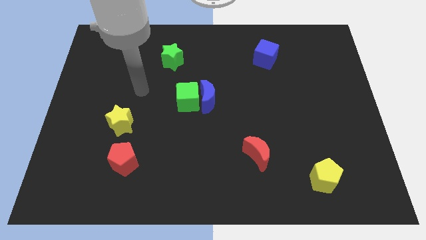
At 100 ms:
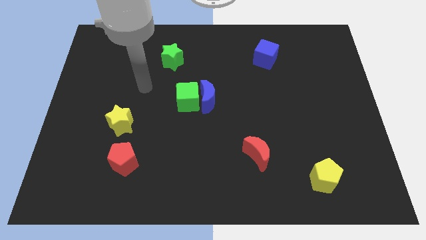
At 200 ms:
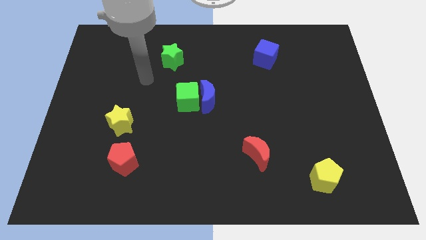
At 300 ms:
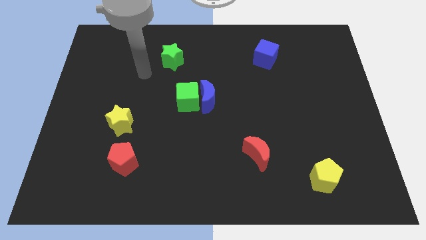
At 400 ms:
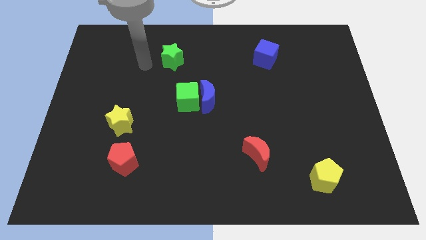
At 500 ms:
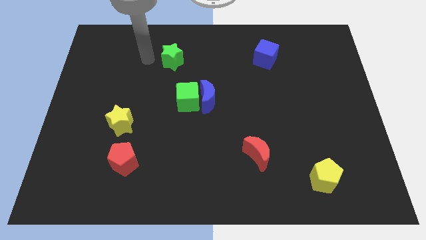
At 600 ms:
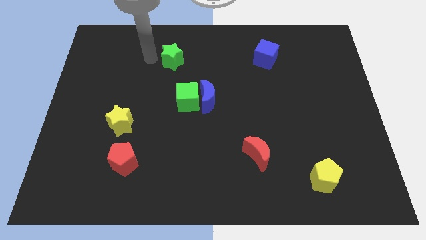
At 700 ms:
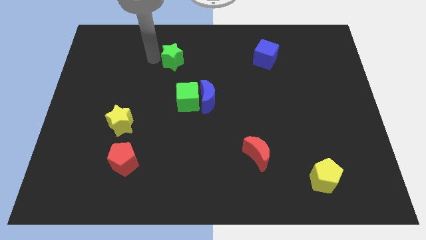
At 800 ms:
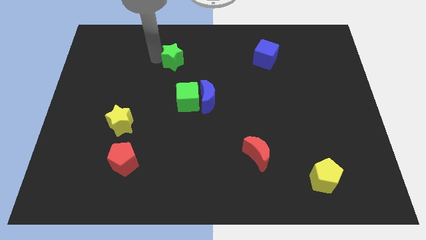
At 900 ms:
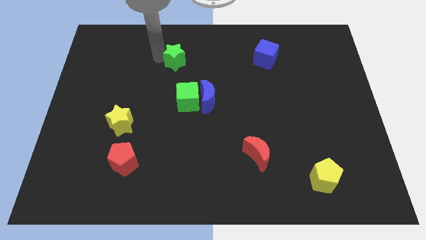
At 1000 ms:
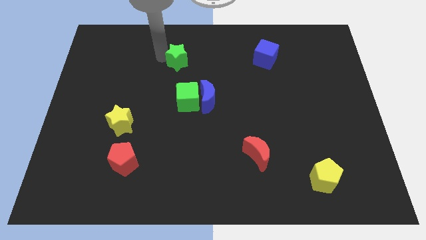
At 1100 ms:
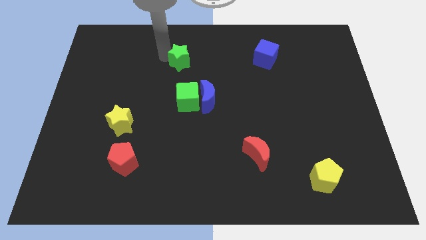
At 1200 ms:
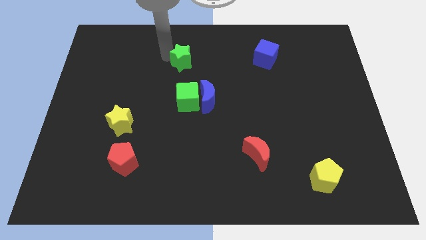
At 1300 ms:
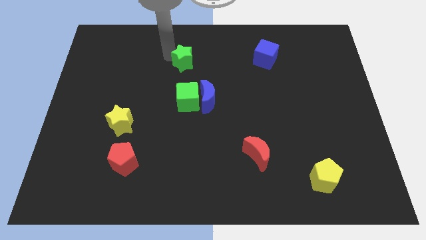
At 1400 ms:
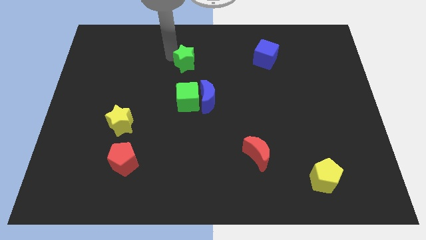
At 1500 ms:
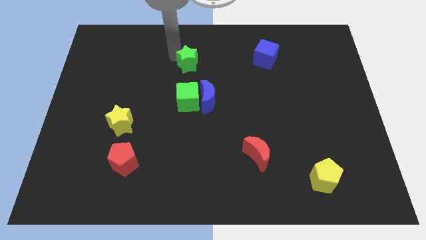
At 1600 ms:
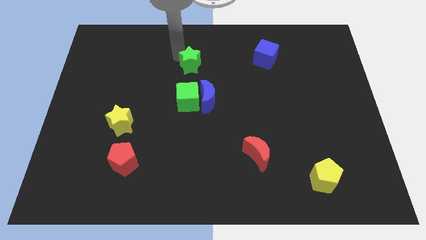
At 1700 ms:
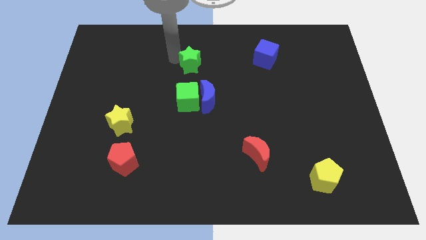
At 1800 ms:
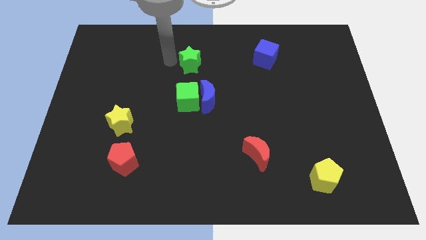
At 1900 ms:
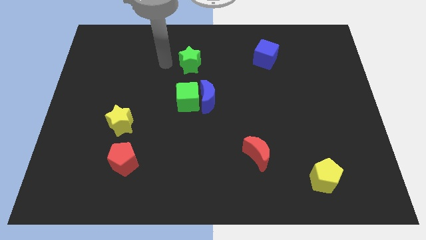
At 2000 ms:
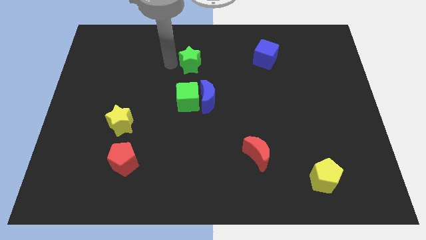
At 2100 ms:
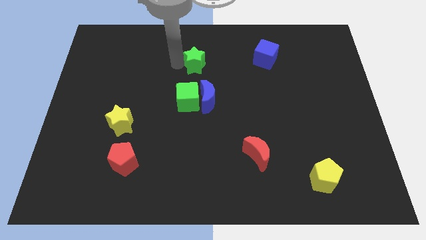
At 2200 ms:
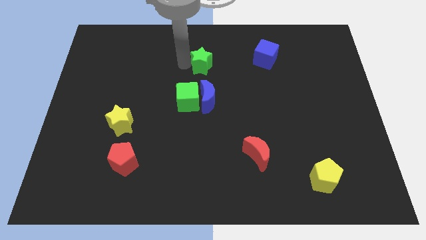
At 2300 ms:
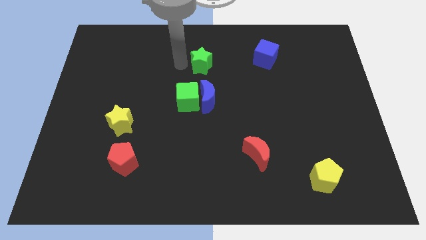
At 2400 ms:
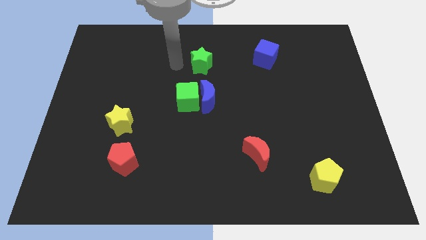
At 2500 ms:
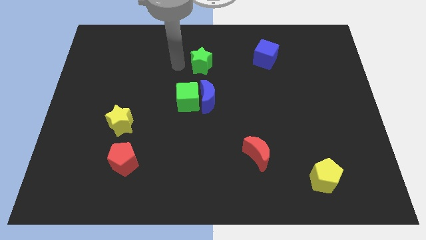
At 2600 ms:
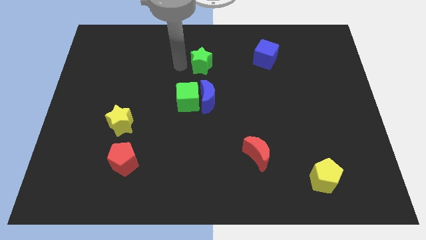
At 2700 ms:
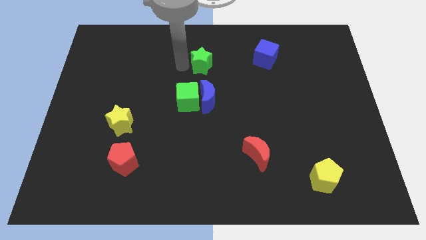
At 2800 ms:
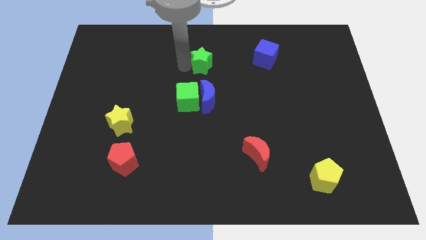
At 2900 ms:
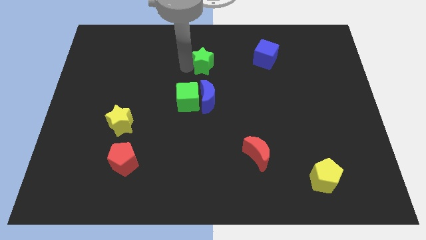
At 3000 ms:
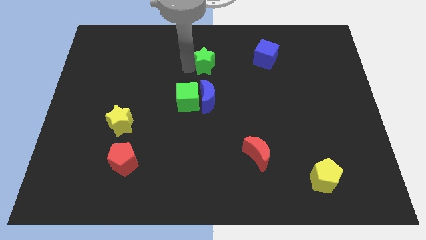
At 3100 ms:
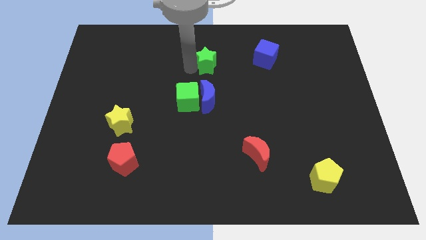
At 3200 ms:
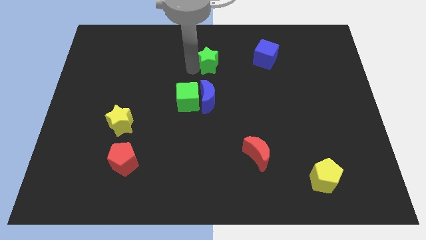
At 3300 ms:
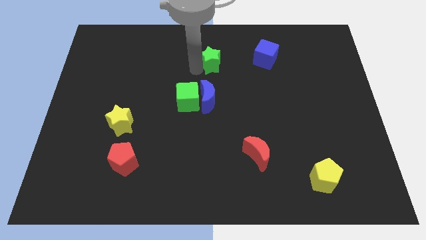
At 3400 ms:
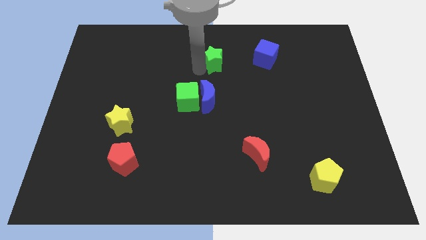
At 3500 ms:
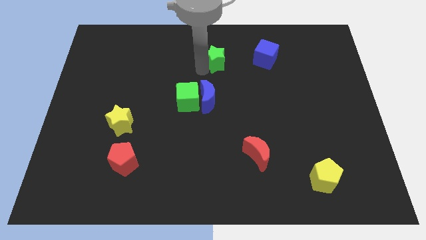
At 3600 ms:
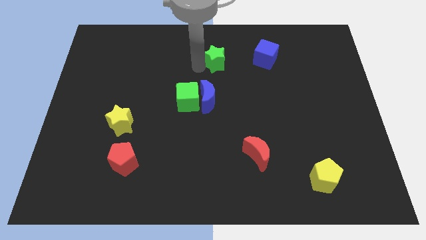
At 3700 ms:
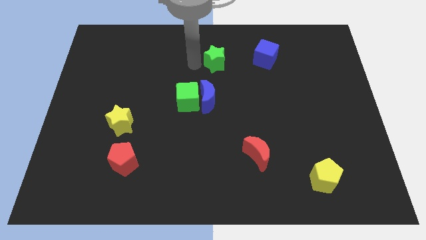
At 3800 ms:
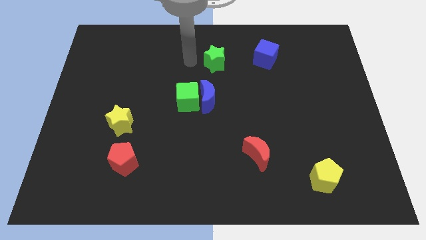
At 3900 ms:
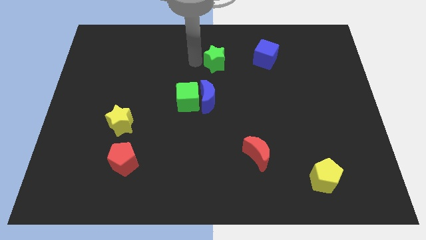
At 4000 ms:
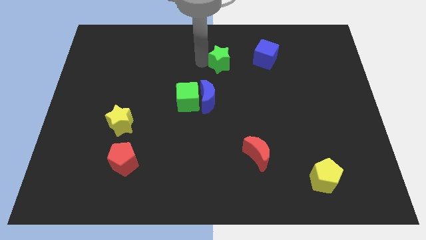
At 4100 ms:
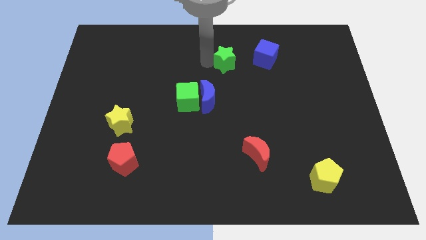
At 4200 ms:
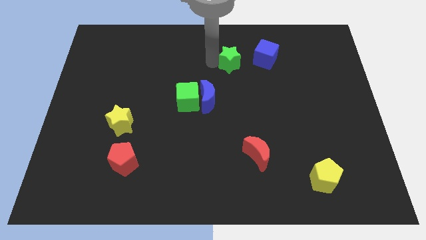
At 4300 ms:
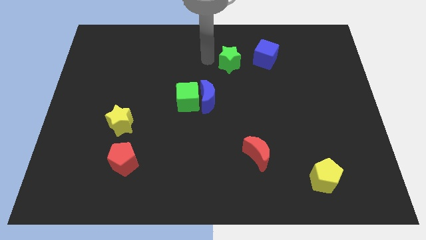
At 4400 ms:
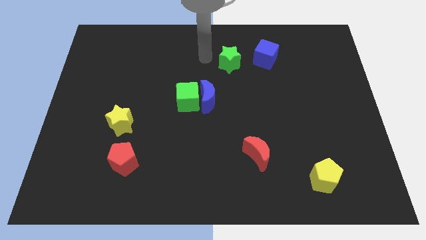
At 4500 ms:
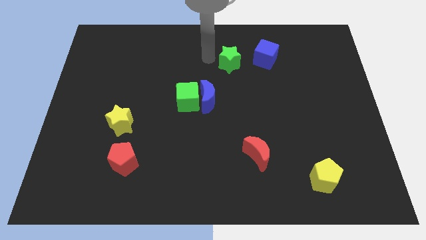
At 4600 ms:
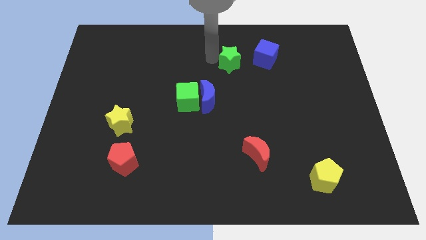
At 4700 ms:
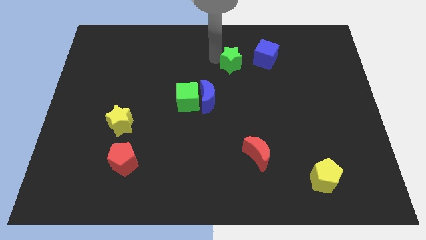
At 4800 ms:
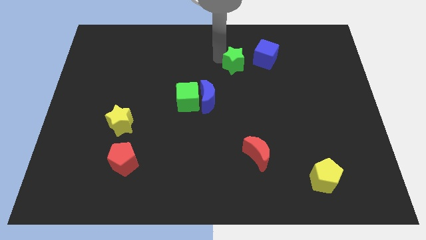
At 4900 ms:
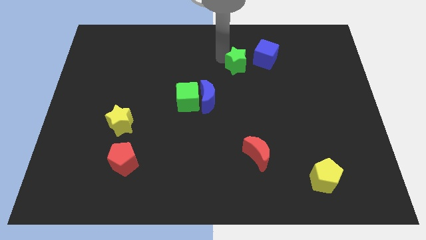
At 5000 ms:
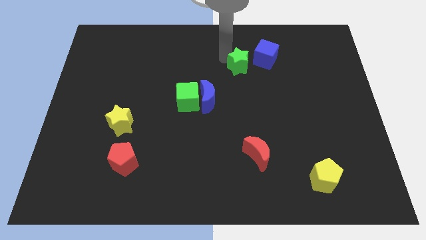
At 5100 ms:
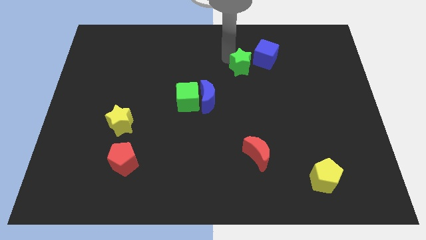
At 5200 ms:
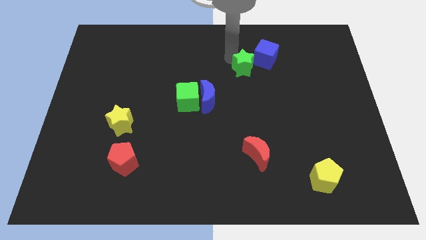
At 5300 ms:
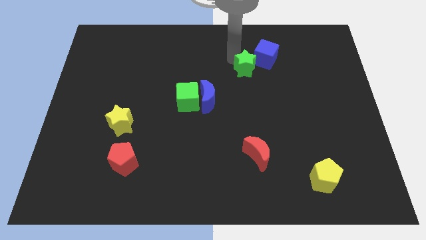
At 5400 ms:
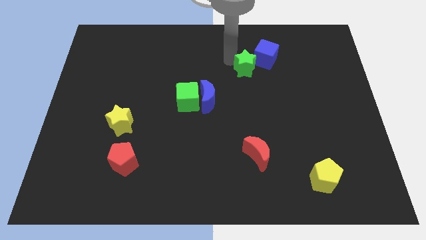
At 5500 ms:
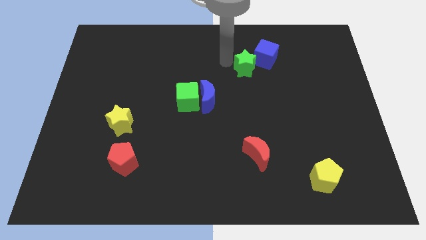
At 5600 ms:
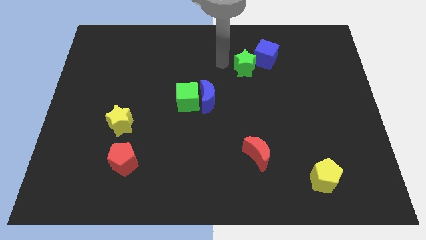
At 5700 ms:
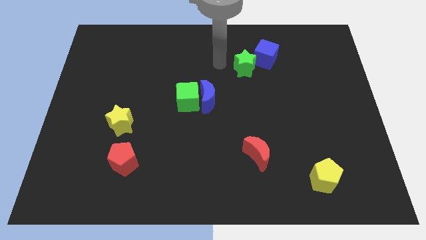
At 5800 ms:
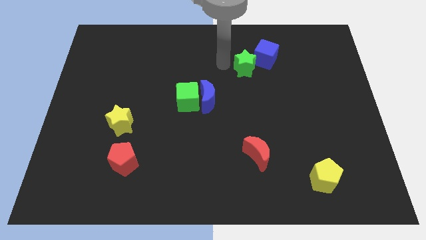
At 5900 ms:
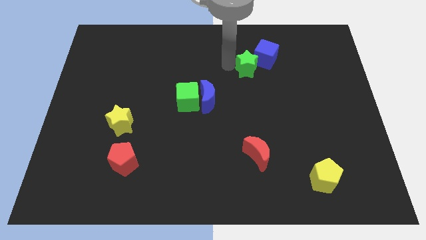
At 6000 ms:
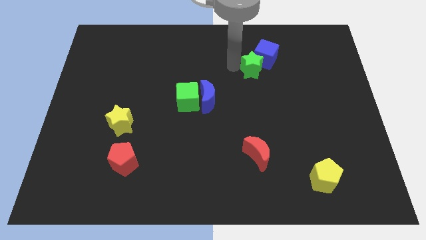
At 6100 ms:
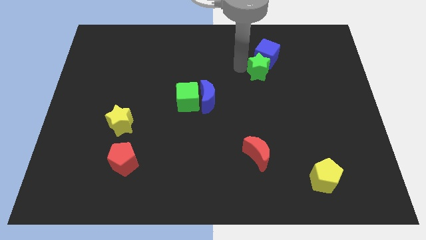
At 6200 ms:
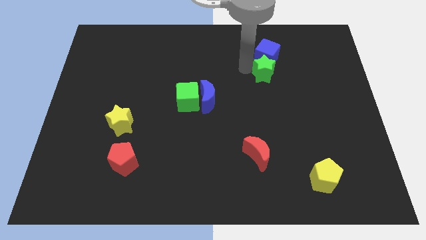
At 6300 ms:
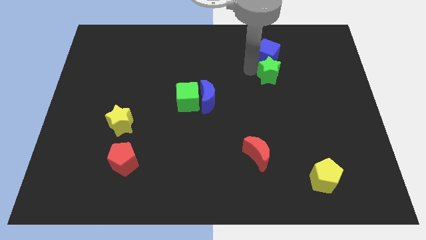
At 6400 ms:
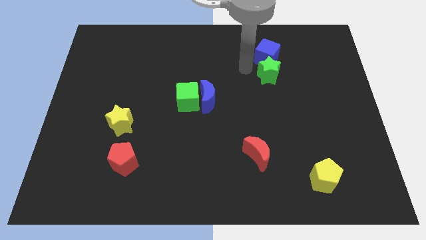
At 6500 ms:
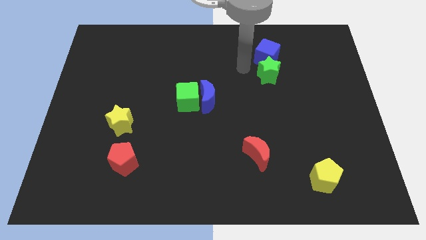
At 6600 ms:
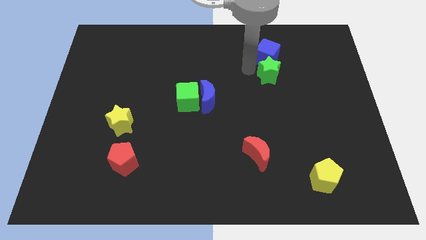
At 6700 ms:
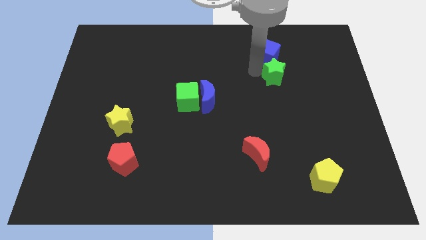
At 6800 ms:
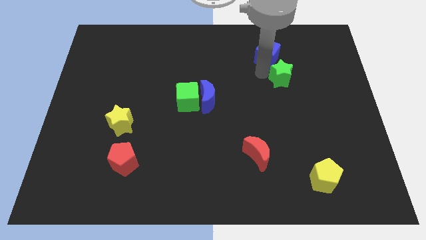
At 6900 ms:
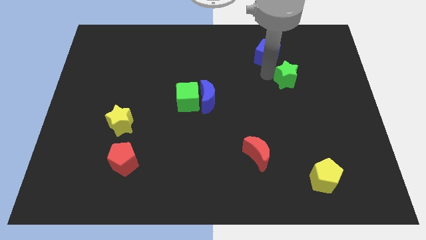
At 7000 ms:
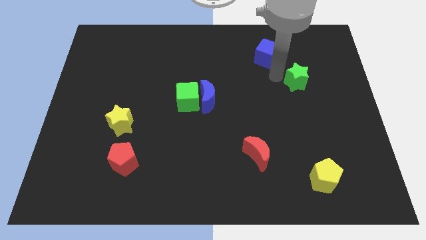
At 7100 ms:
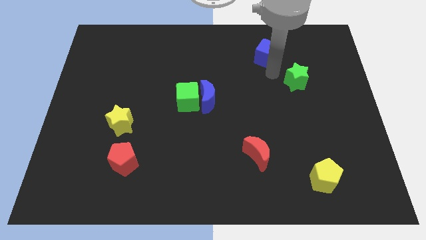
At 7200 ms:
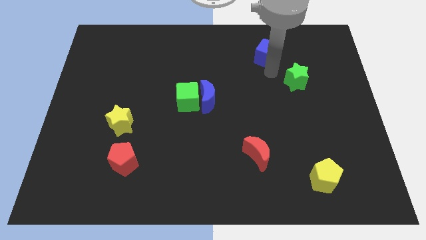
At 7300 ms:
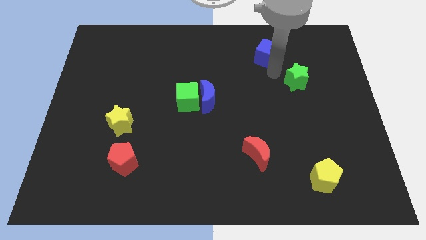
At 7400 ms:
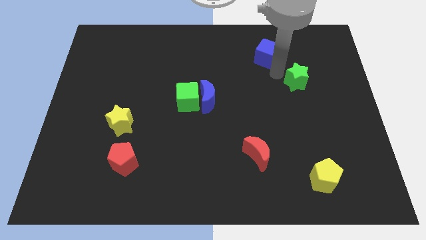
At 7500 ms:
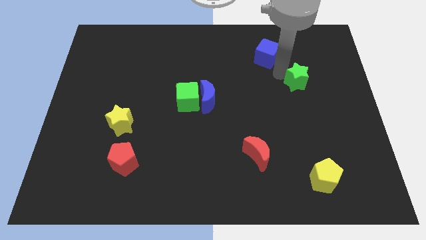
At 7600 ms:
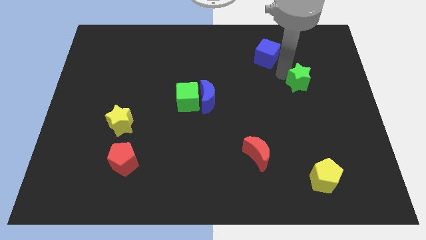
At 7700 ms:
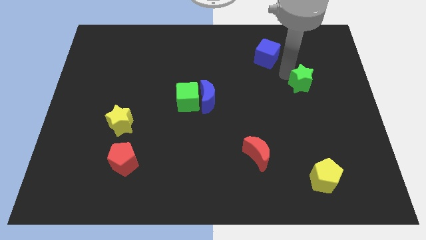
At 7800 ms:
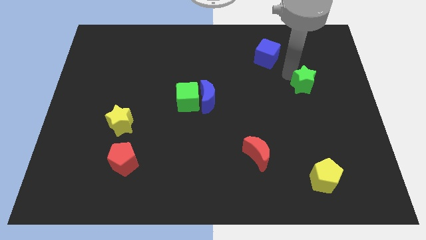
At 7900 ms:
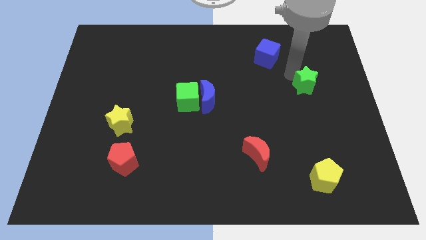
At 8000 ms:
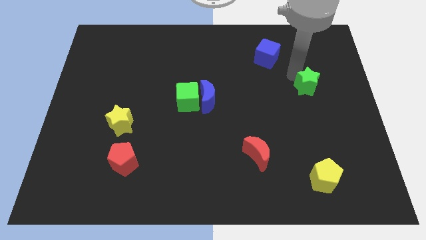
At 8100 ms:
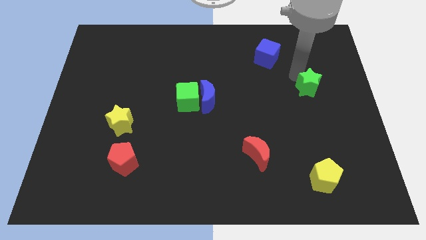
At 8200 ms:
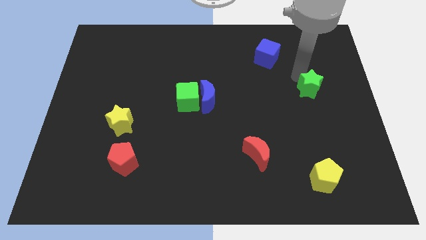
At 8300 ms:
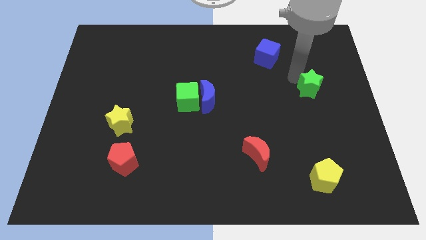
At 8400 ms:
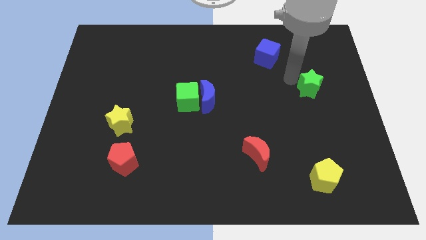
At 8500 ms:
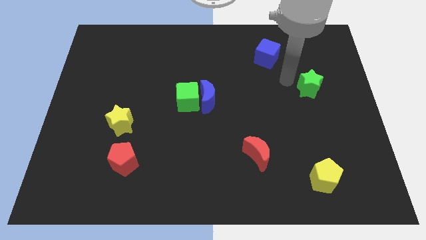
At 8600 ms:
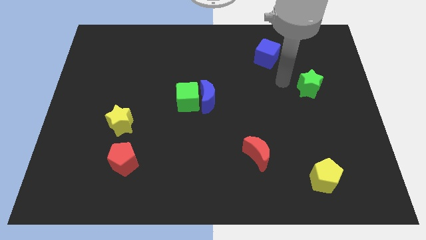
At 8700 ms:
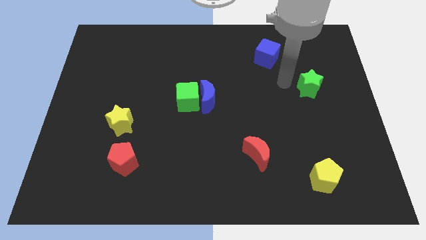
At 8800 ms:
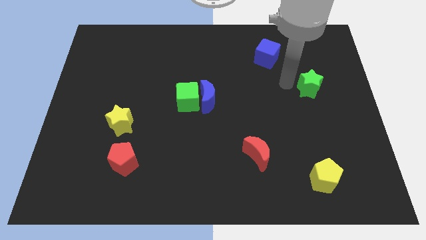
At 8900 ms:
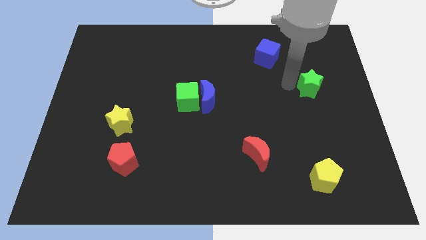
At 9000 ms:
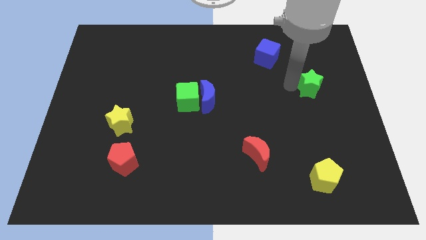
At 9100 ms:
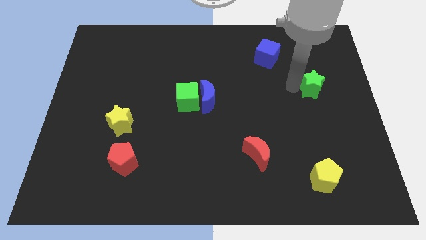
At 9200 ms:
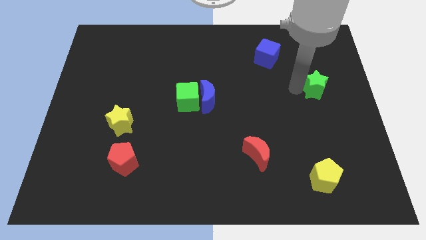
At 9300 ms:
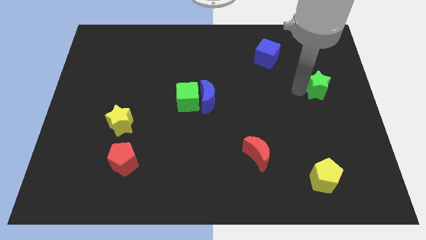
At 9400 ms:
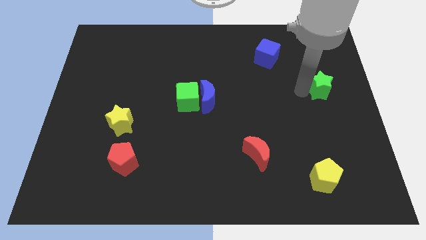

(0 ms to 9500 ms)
slide the green star to the right side of the board
